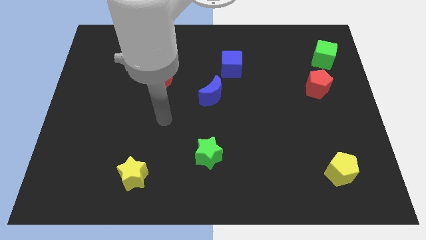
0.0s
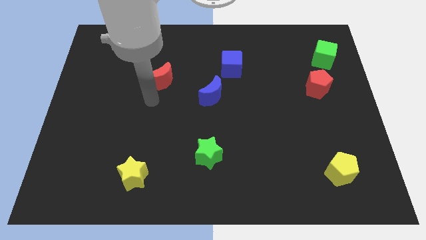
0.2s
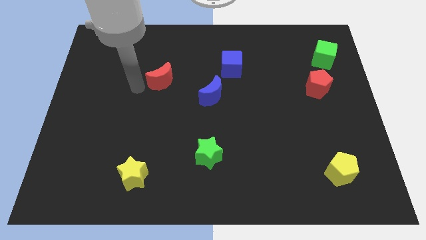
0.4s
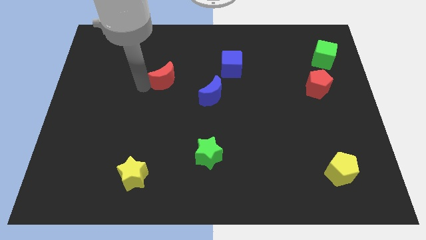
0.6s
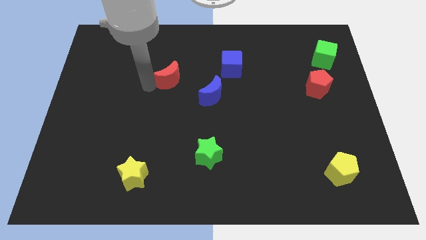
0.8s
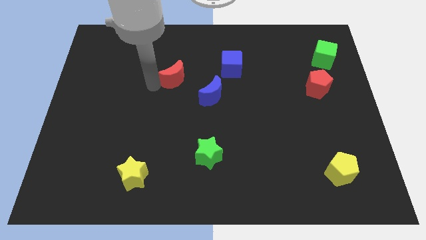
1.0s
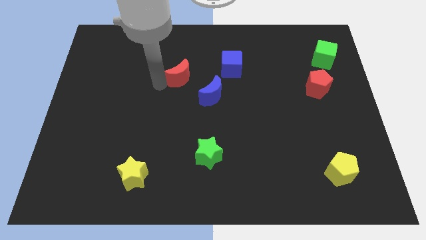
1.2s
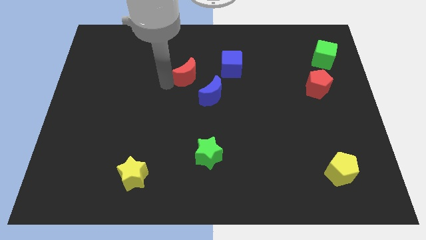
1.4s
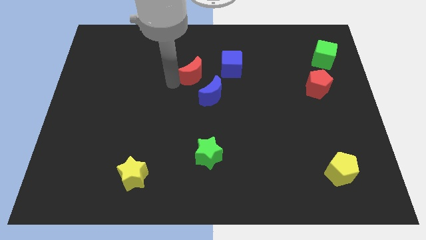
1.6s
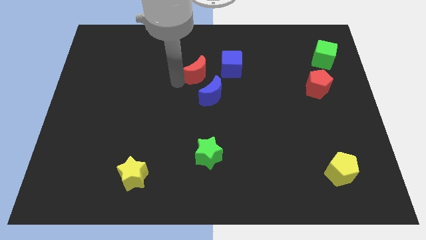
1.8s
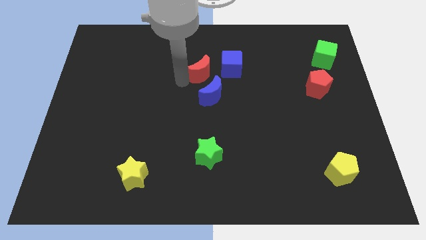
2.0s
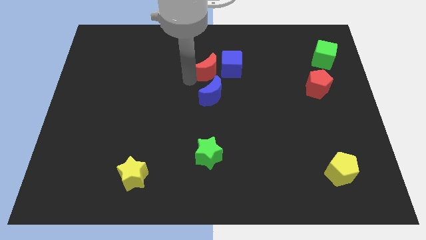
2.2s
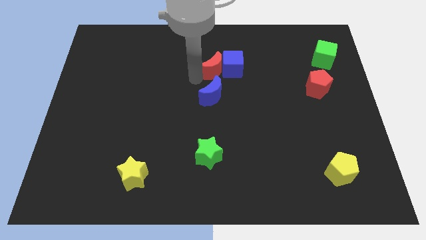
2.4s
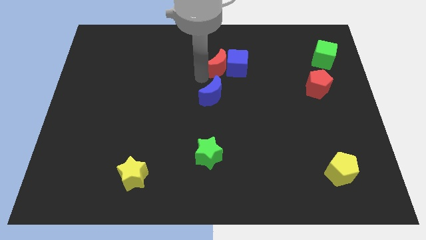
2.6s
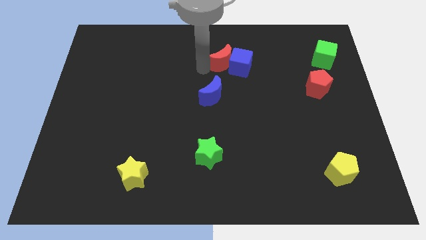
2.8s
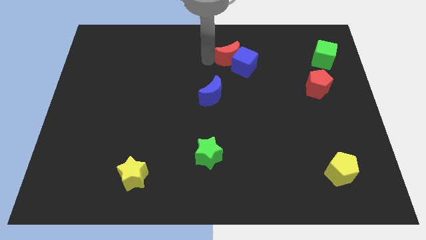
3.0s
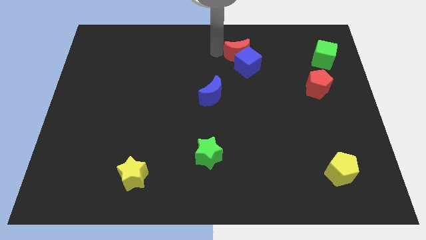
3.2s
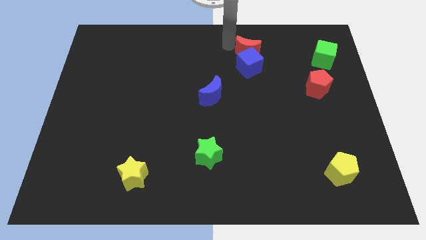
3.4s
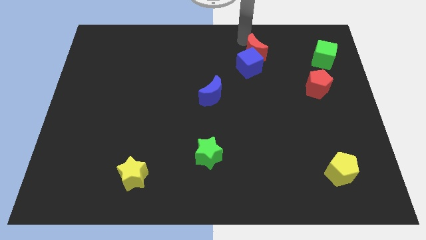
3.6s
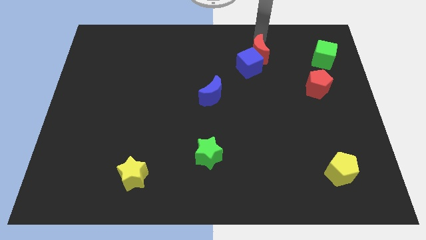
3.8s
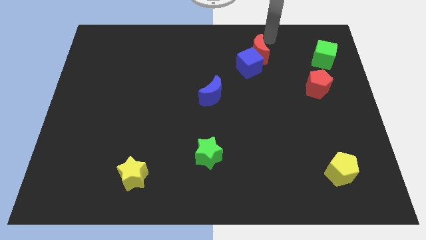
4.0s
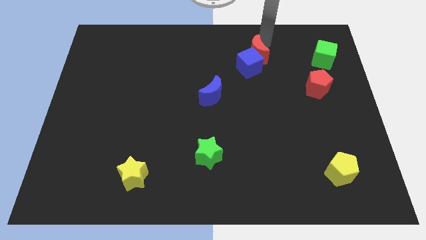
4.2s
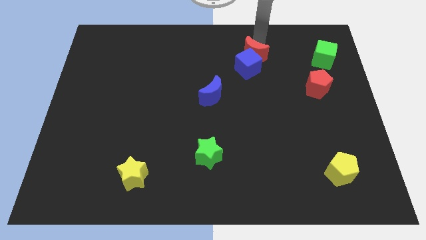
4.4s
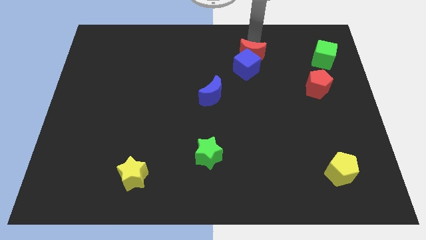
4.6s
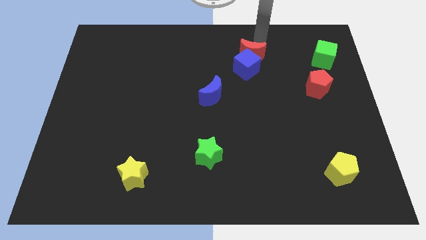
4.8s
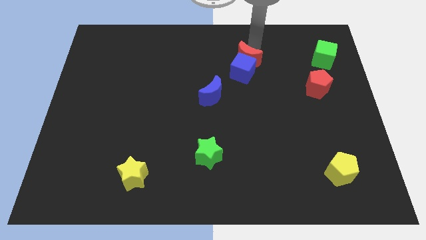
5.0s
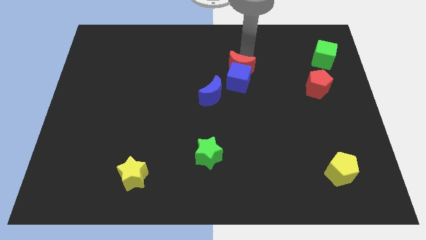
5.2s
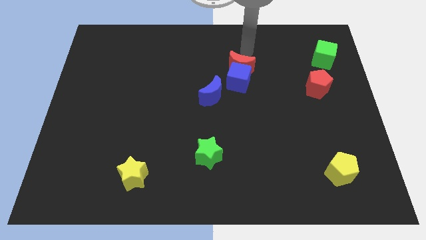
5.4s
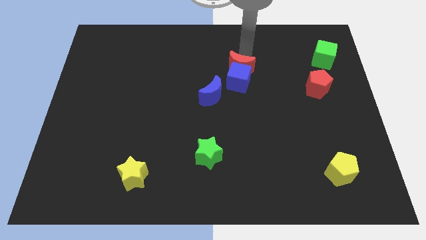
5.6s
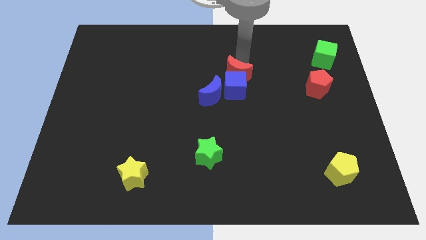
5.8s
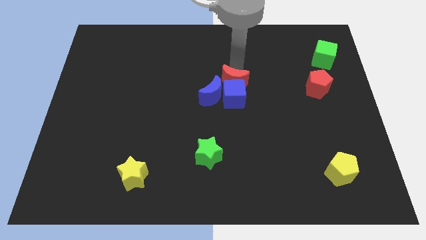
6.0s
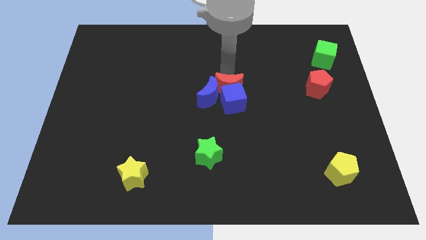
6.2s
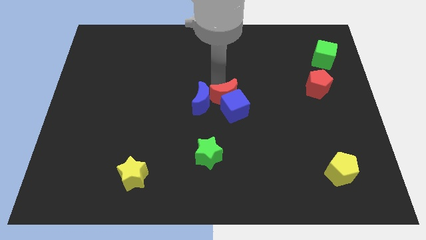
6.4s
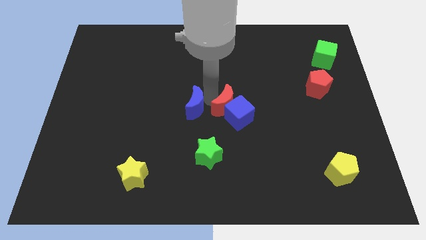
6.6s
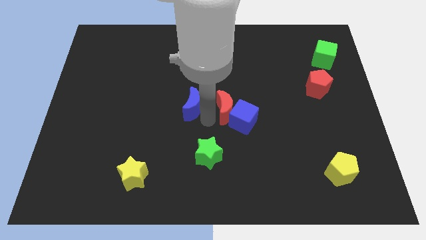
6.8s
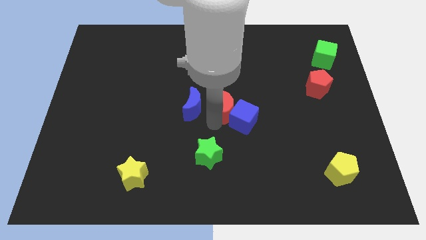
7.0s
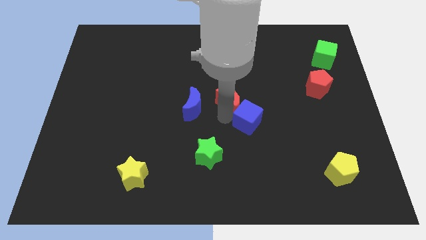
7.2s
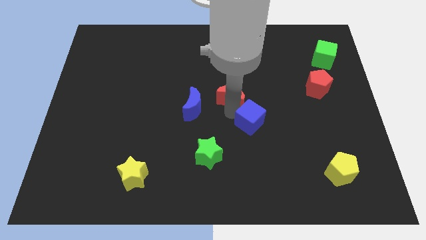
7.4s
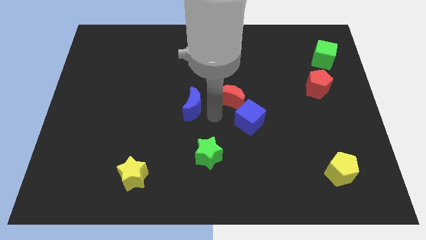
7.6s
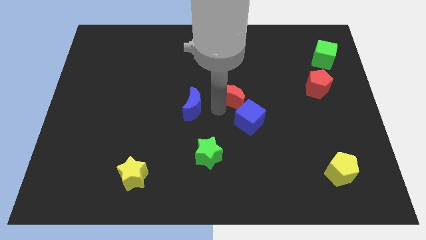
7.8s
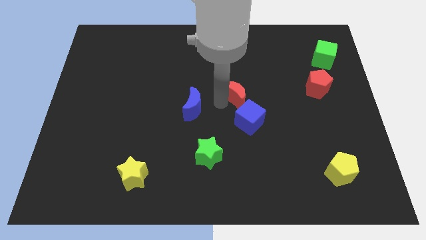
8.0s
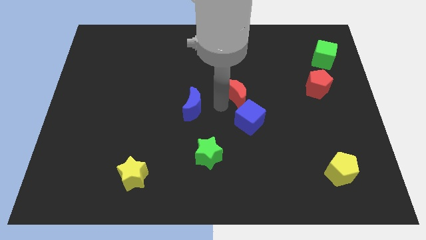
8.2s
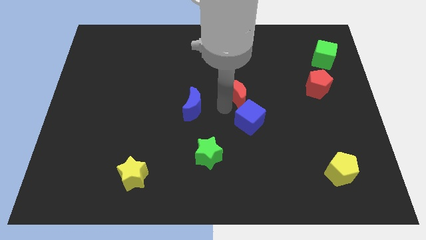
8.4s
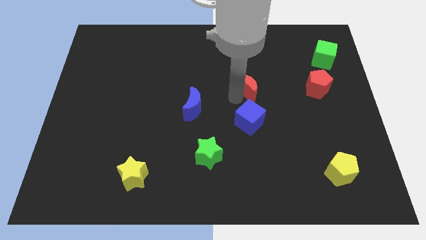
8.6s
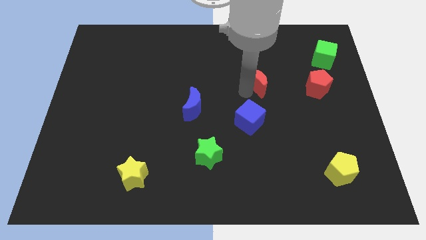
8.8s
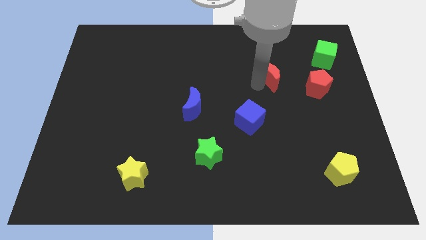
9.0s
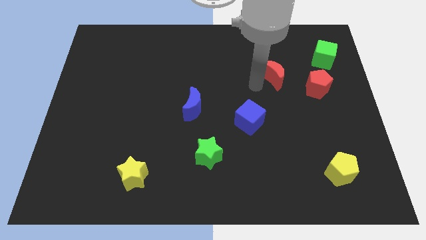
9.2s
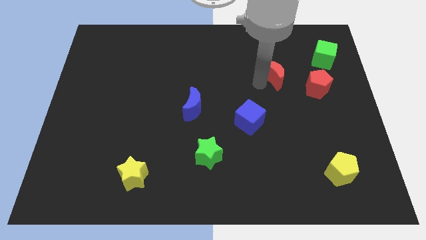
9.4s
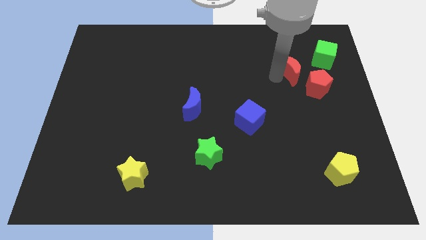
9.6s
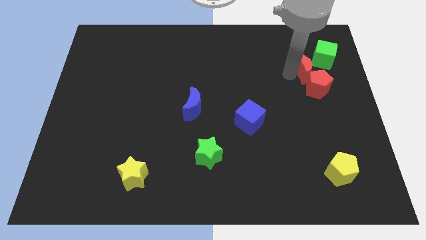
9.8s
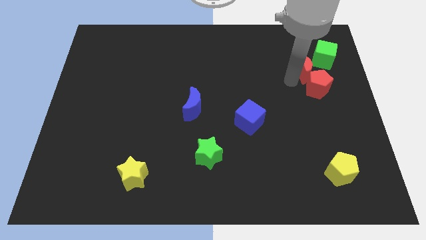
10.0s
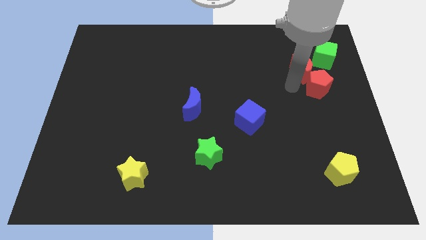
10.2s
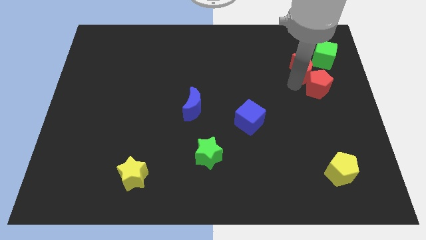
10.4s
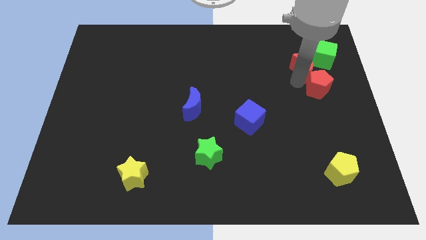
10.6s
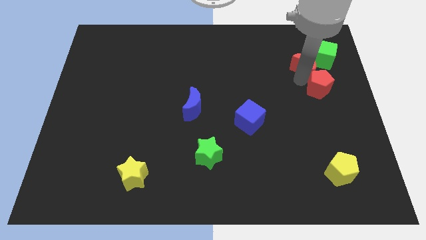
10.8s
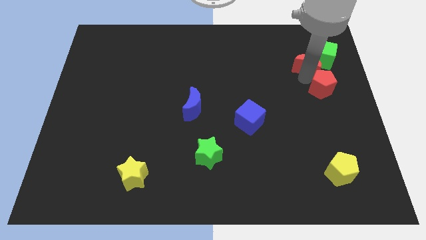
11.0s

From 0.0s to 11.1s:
slide the red moon towards the green cube

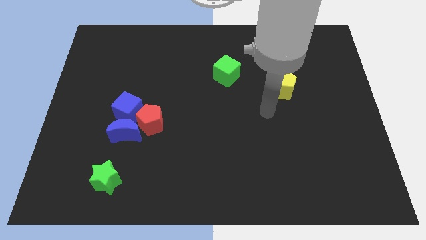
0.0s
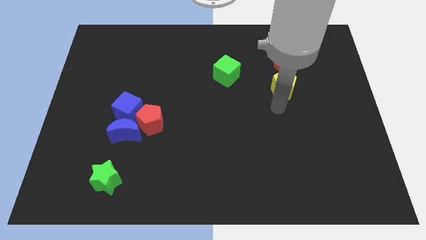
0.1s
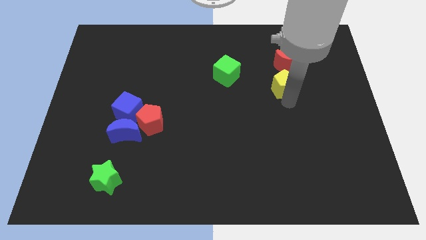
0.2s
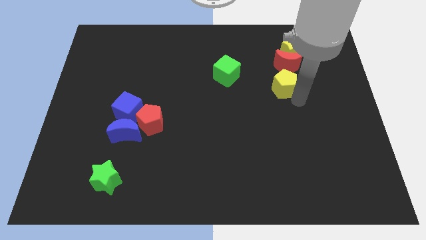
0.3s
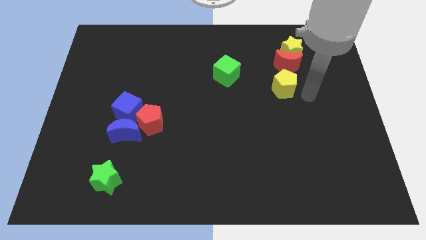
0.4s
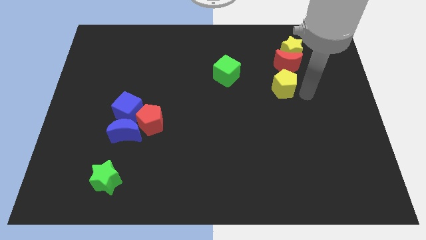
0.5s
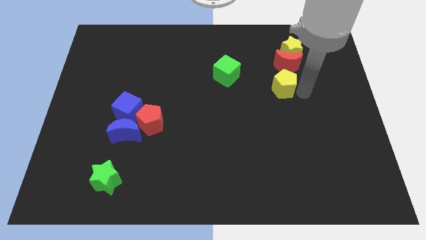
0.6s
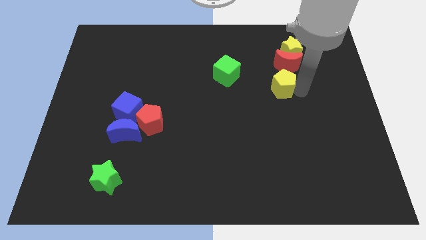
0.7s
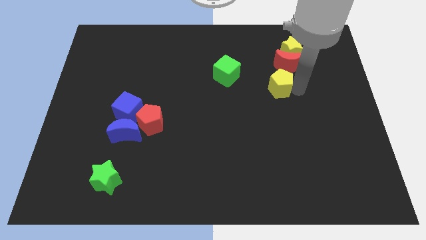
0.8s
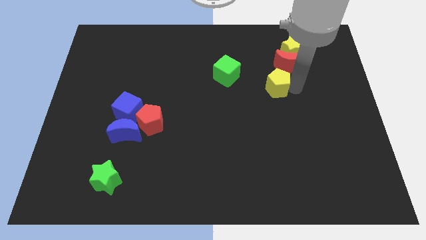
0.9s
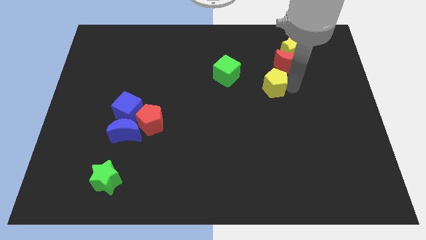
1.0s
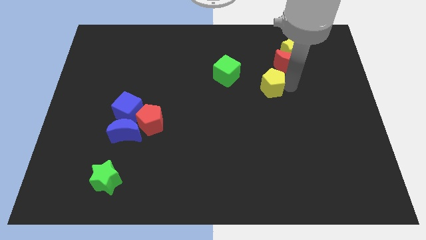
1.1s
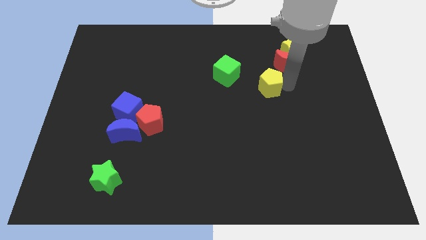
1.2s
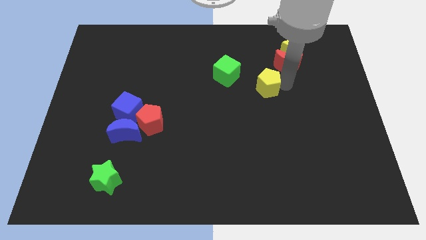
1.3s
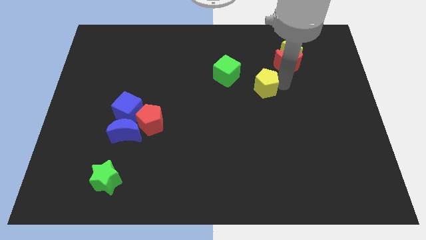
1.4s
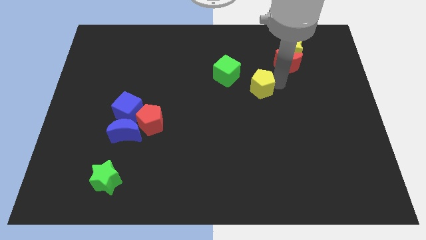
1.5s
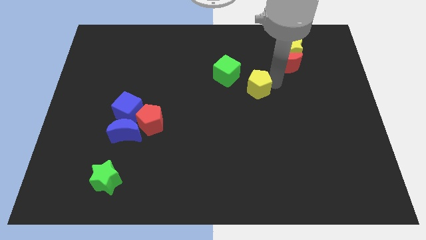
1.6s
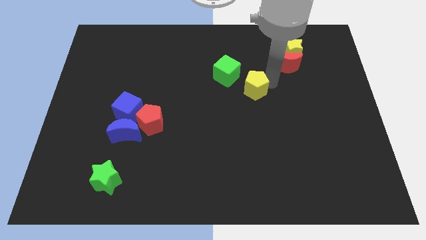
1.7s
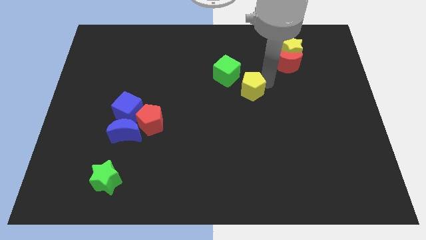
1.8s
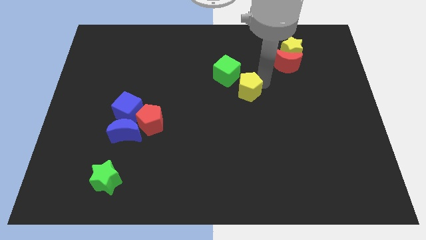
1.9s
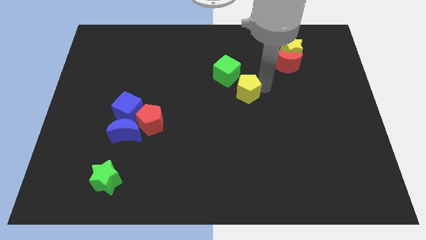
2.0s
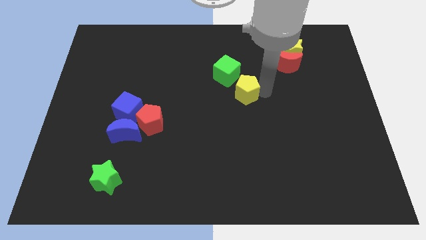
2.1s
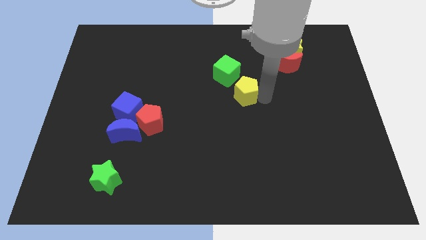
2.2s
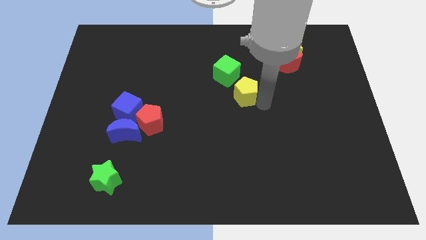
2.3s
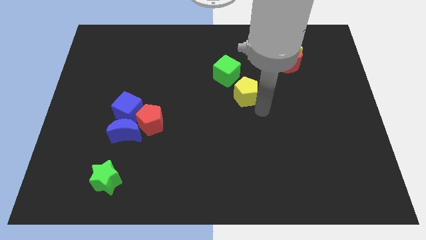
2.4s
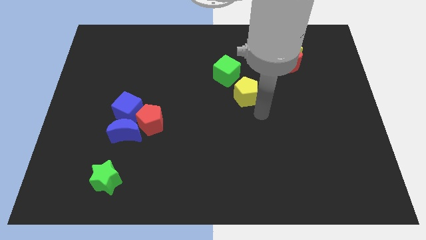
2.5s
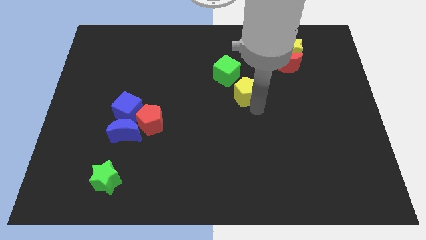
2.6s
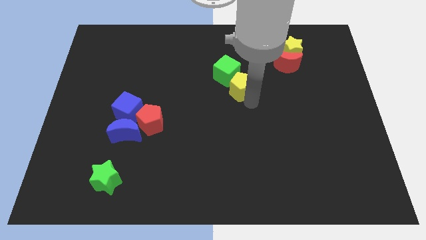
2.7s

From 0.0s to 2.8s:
slide the yellow pentagon next to the green cube
